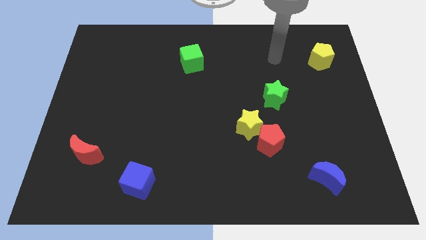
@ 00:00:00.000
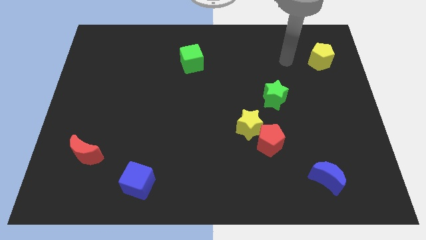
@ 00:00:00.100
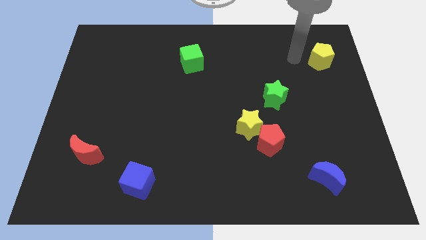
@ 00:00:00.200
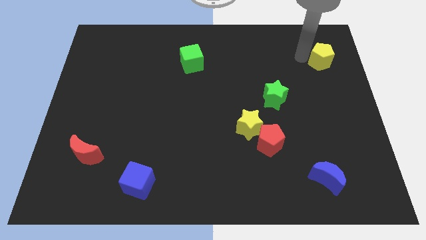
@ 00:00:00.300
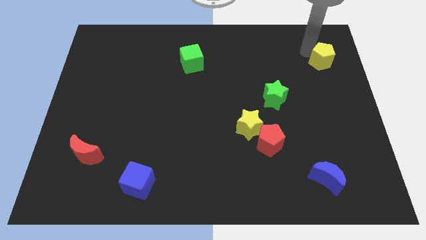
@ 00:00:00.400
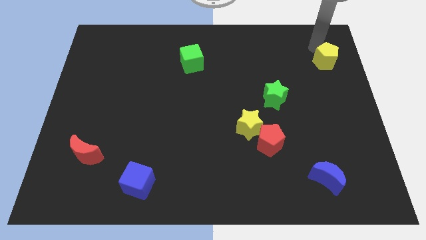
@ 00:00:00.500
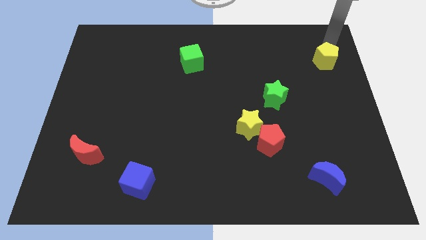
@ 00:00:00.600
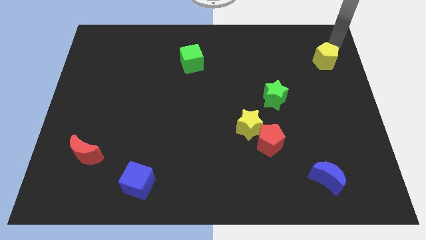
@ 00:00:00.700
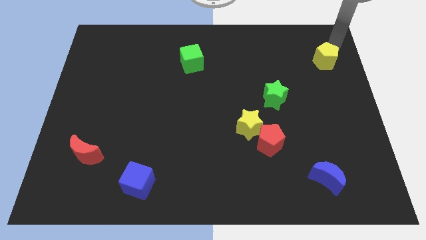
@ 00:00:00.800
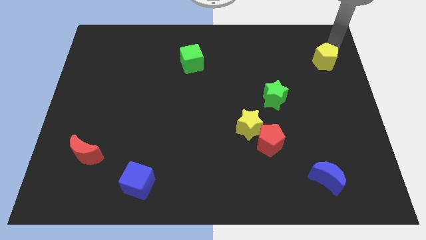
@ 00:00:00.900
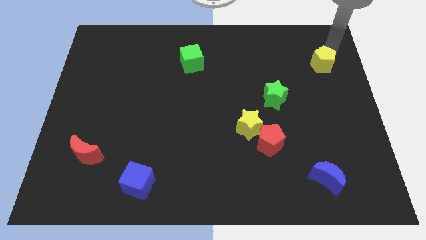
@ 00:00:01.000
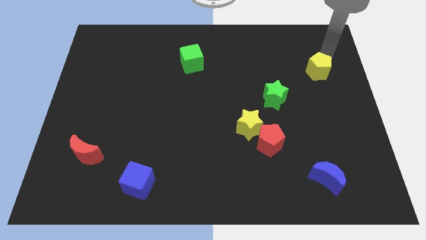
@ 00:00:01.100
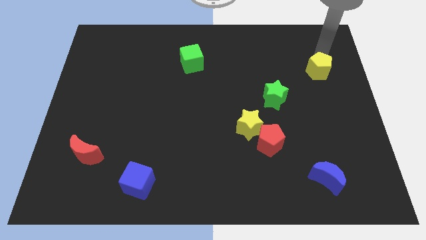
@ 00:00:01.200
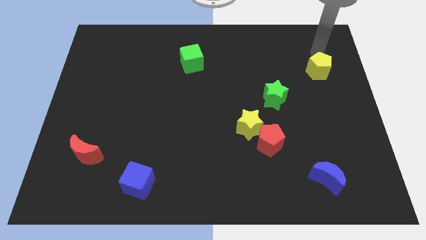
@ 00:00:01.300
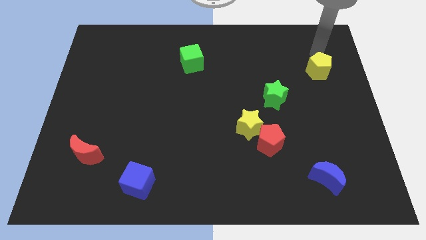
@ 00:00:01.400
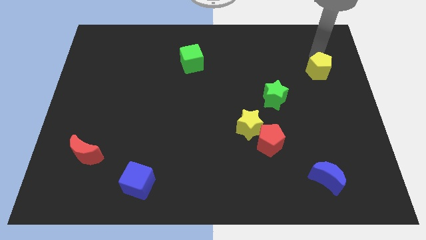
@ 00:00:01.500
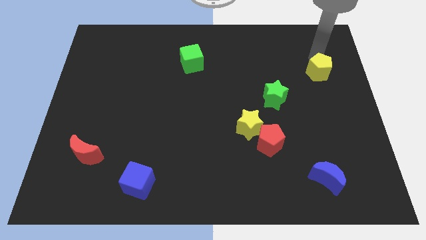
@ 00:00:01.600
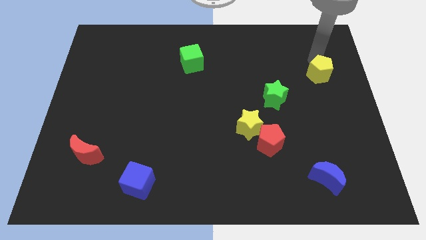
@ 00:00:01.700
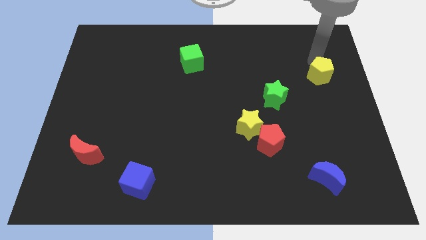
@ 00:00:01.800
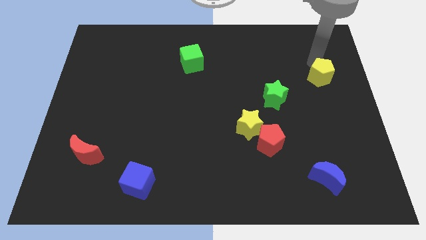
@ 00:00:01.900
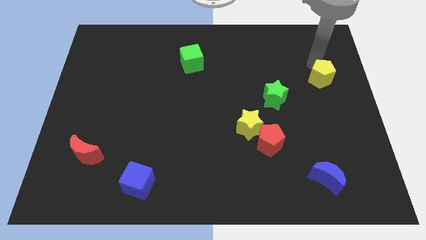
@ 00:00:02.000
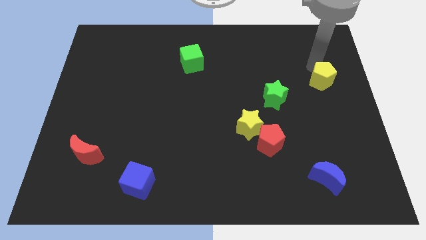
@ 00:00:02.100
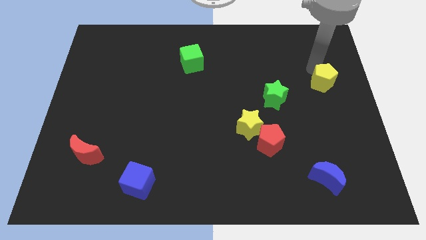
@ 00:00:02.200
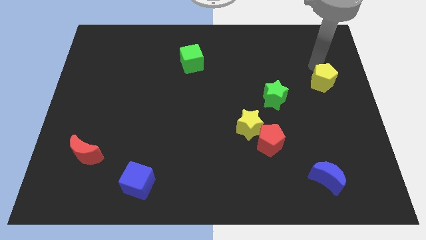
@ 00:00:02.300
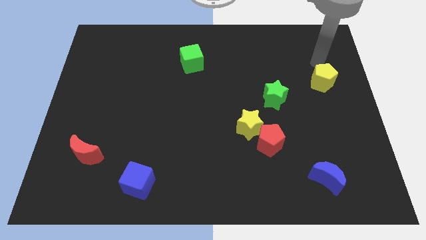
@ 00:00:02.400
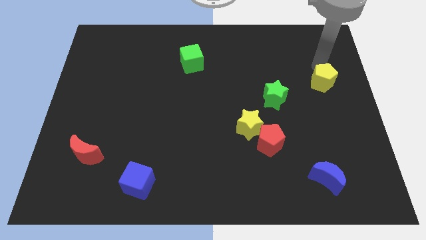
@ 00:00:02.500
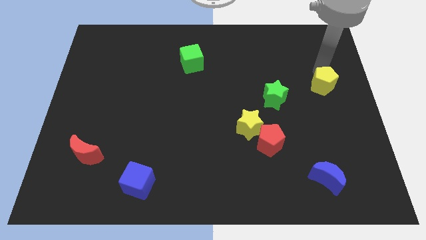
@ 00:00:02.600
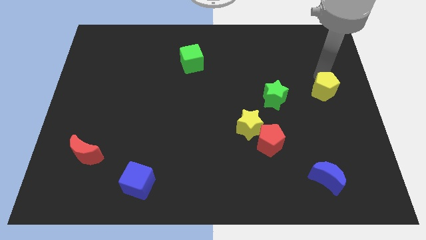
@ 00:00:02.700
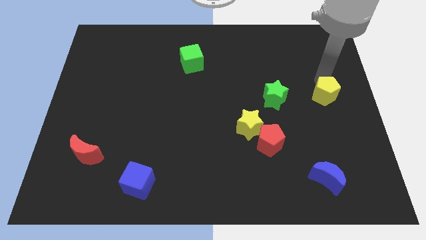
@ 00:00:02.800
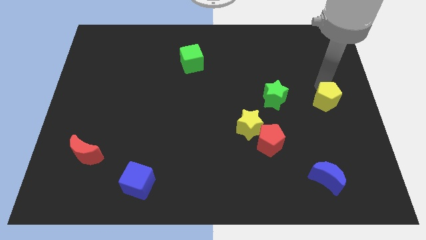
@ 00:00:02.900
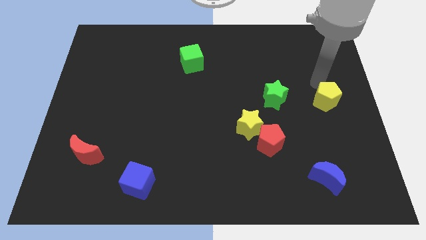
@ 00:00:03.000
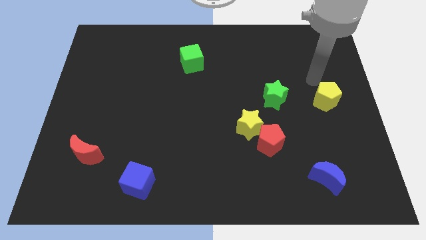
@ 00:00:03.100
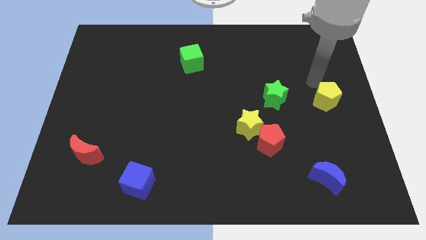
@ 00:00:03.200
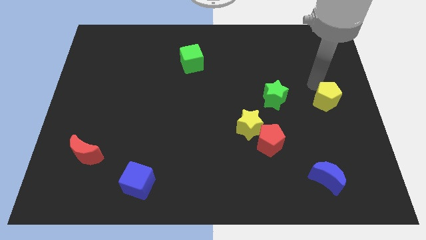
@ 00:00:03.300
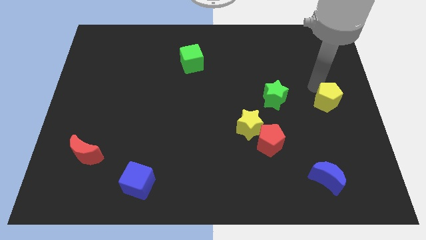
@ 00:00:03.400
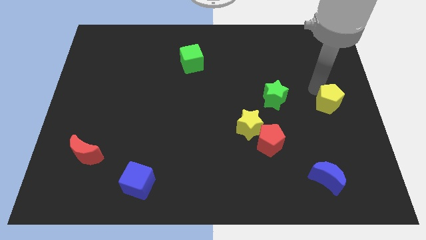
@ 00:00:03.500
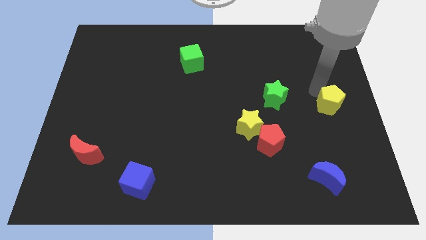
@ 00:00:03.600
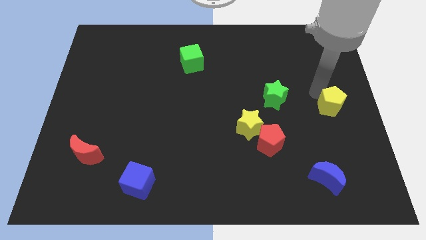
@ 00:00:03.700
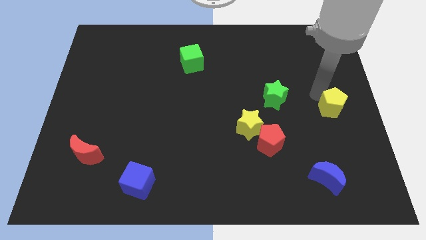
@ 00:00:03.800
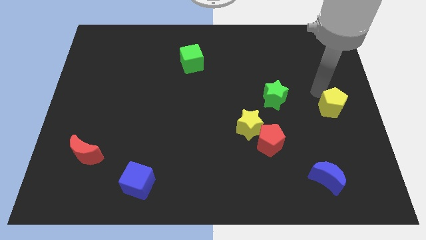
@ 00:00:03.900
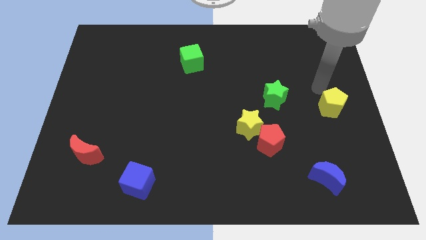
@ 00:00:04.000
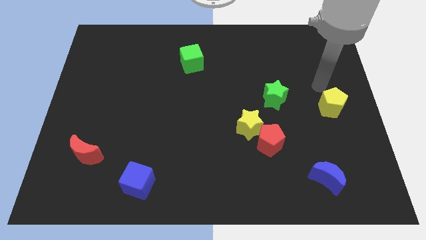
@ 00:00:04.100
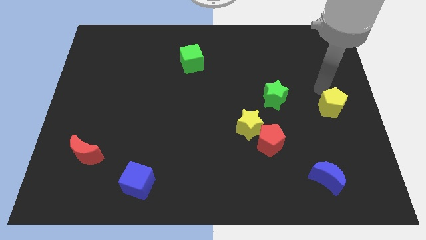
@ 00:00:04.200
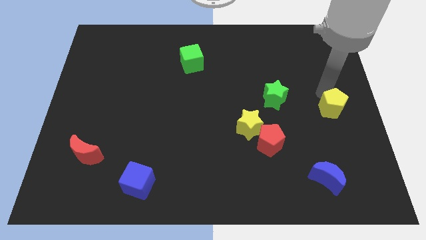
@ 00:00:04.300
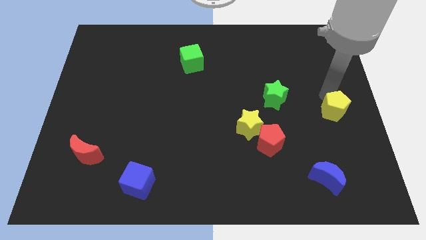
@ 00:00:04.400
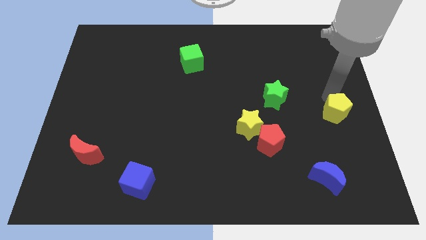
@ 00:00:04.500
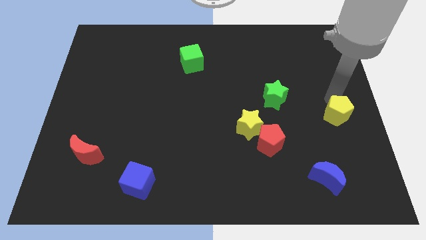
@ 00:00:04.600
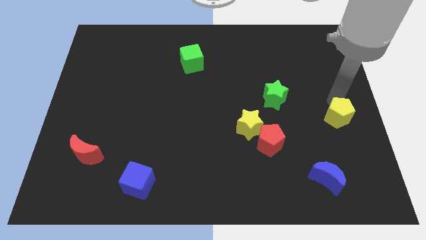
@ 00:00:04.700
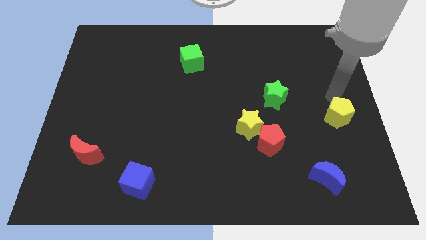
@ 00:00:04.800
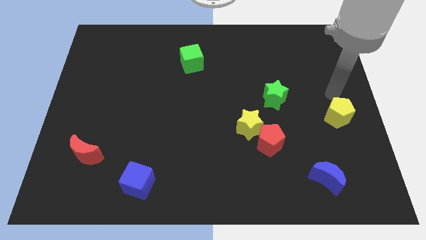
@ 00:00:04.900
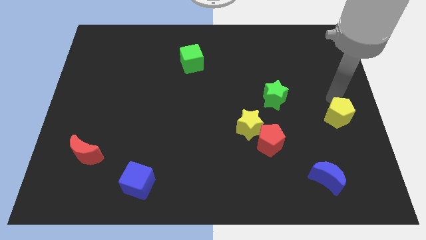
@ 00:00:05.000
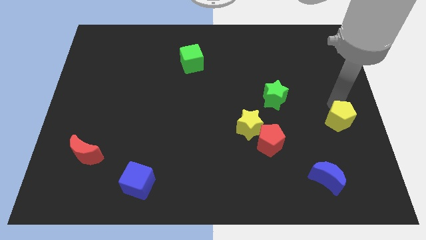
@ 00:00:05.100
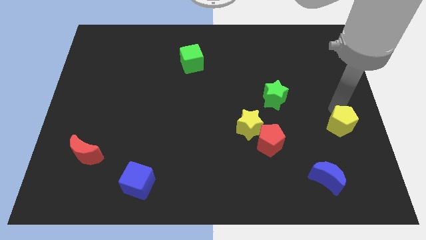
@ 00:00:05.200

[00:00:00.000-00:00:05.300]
move the yellow pentagon down

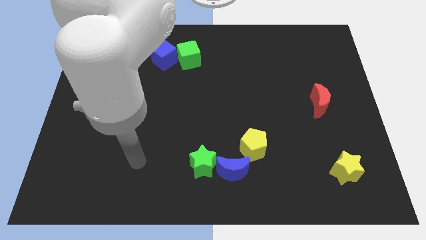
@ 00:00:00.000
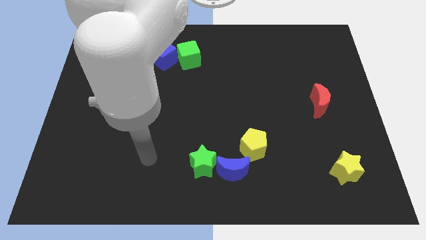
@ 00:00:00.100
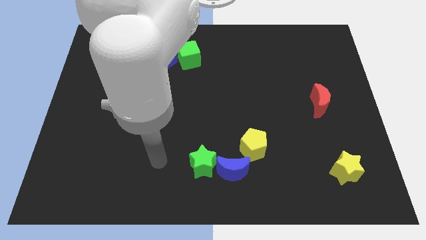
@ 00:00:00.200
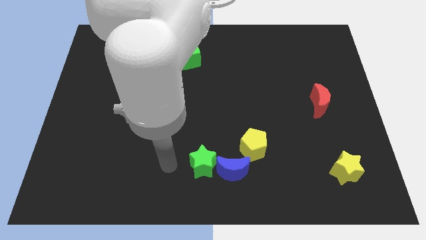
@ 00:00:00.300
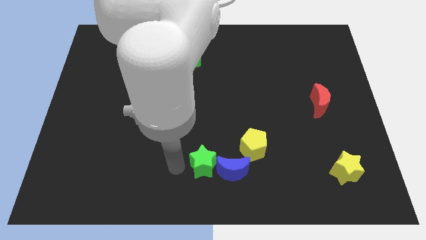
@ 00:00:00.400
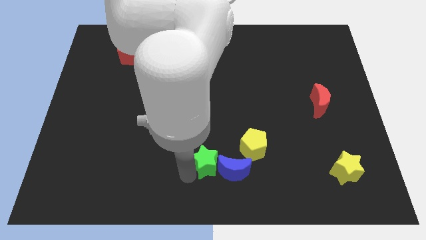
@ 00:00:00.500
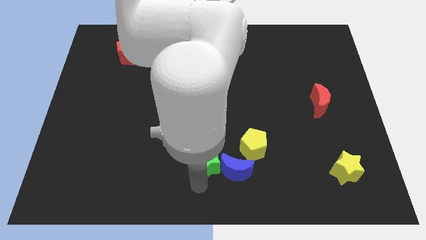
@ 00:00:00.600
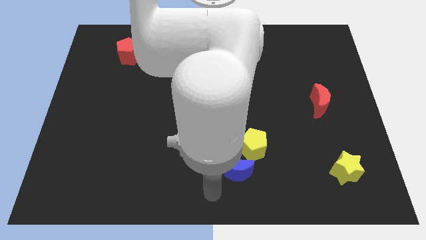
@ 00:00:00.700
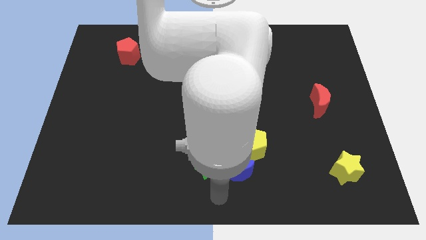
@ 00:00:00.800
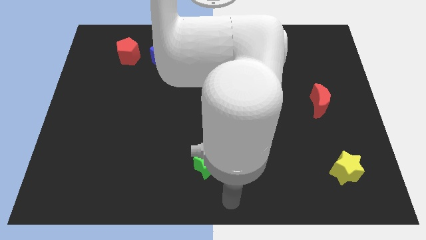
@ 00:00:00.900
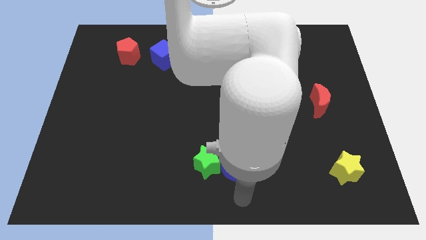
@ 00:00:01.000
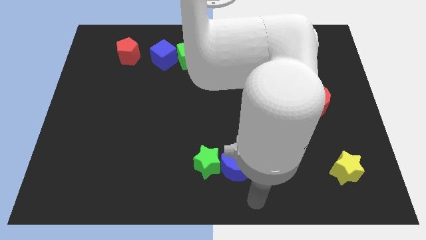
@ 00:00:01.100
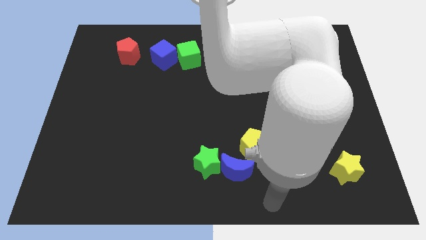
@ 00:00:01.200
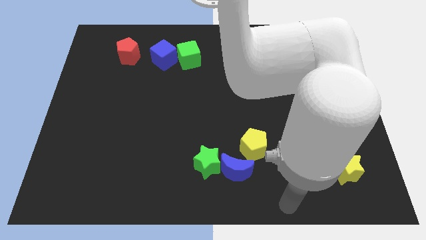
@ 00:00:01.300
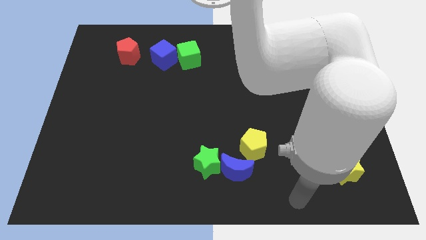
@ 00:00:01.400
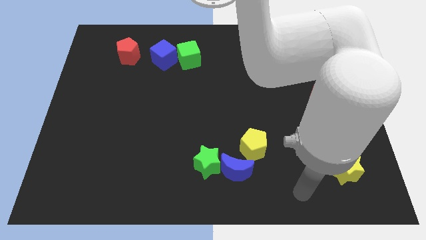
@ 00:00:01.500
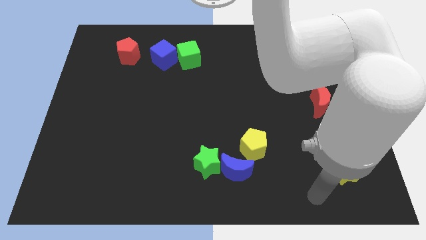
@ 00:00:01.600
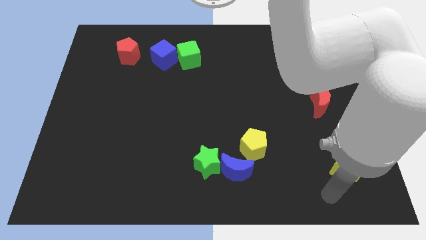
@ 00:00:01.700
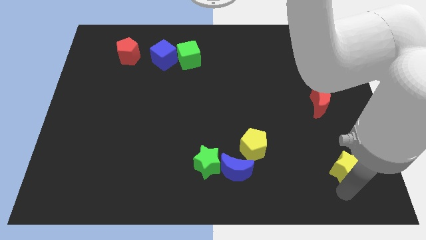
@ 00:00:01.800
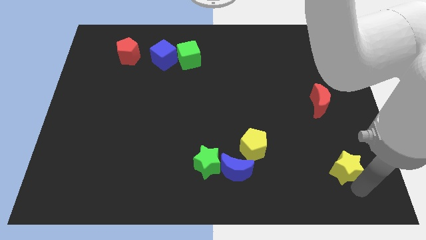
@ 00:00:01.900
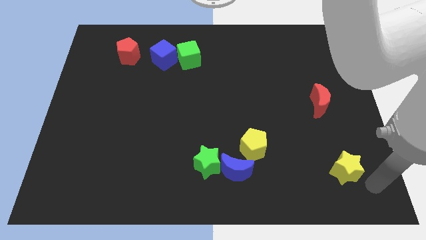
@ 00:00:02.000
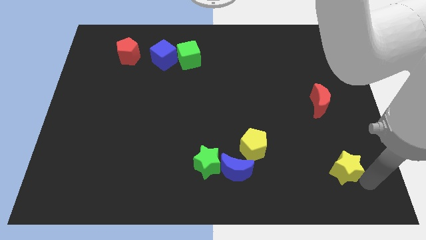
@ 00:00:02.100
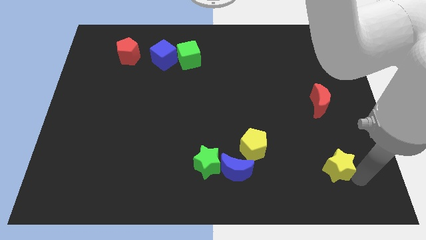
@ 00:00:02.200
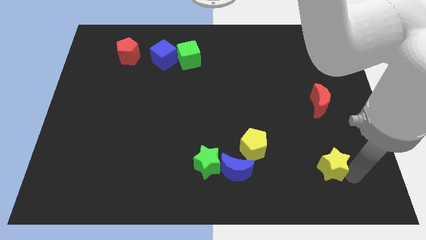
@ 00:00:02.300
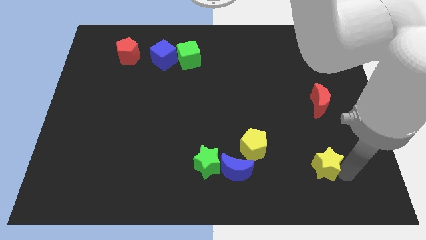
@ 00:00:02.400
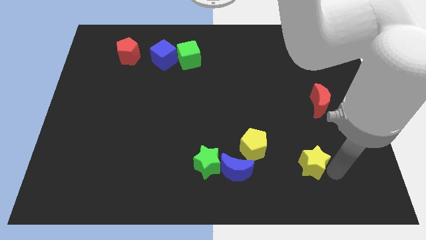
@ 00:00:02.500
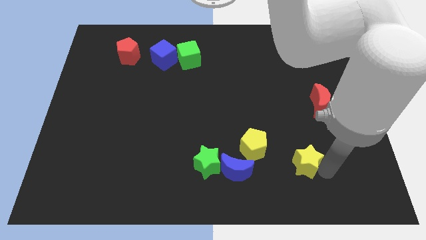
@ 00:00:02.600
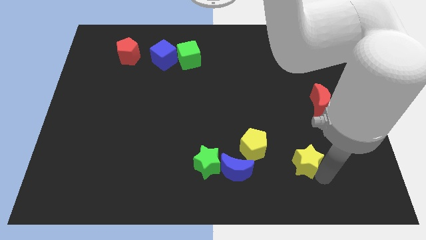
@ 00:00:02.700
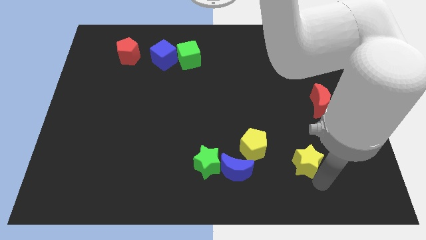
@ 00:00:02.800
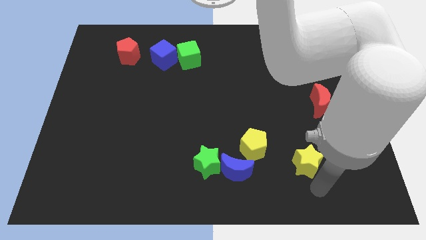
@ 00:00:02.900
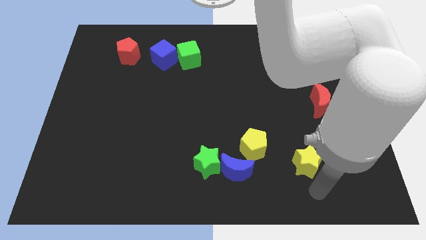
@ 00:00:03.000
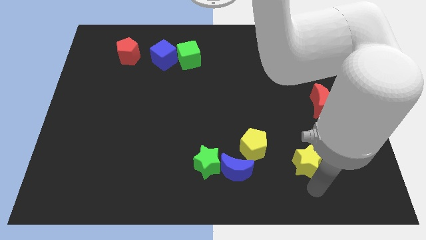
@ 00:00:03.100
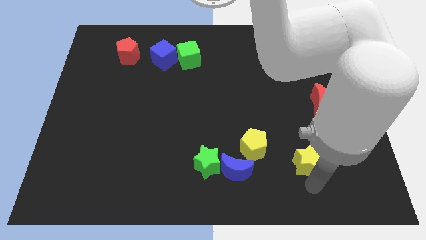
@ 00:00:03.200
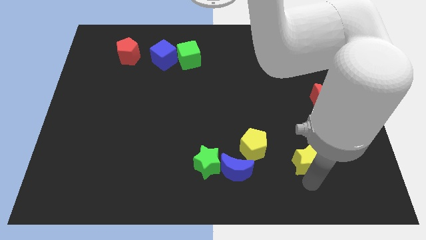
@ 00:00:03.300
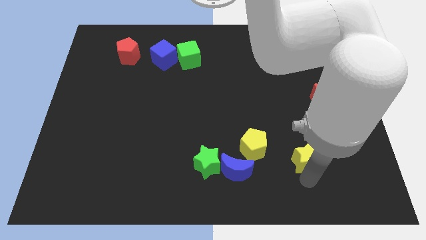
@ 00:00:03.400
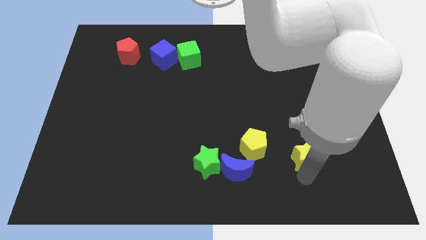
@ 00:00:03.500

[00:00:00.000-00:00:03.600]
move the yellow star somewhat up and left diagonally
